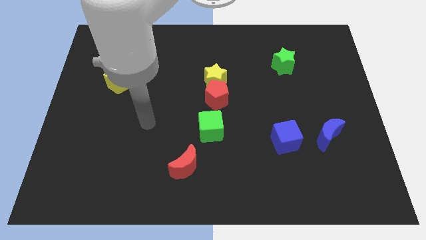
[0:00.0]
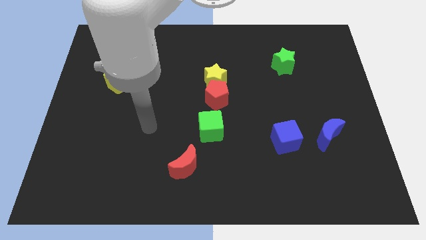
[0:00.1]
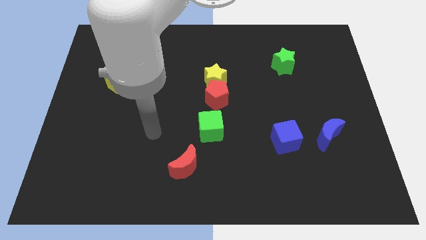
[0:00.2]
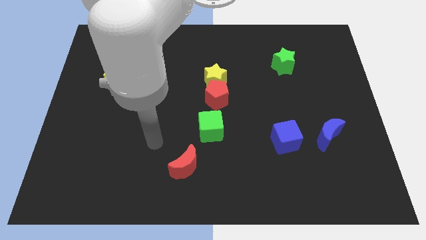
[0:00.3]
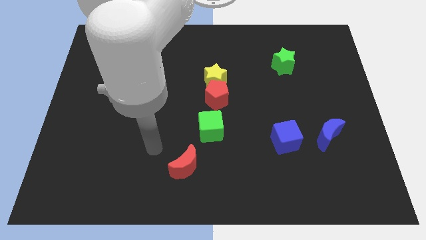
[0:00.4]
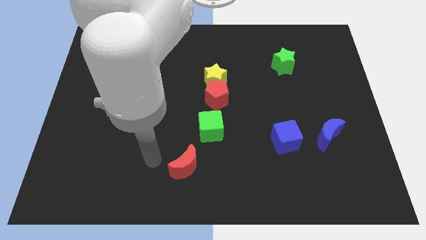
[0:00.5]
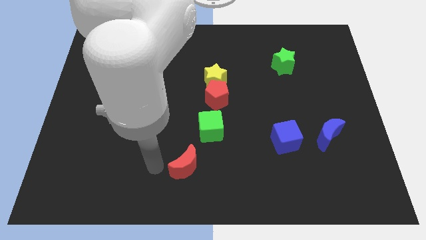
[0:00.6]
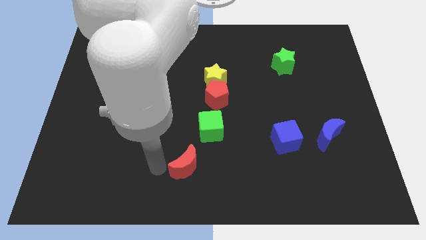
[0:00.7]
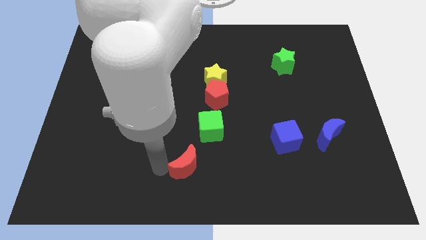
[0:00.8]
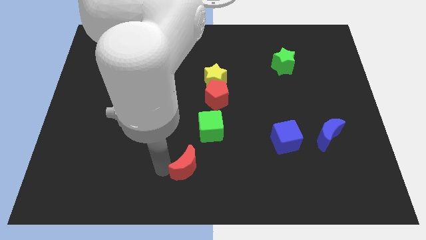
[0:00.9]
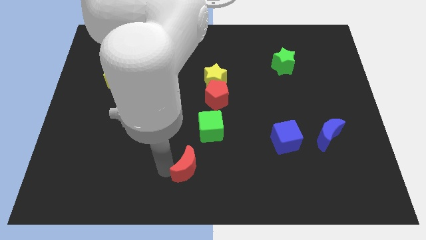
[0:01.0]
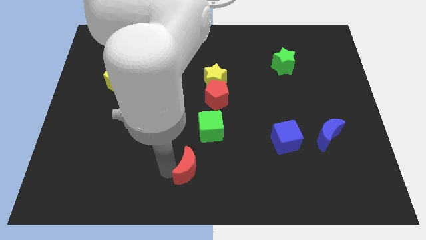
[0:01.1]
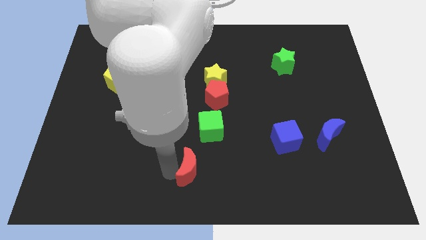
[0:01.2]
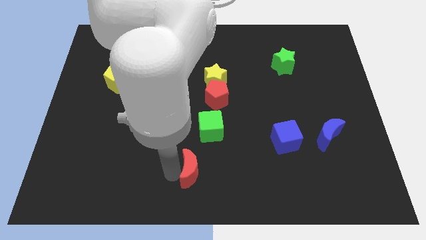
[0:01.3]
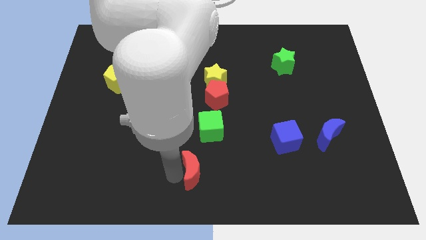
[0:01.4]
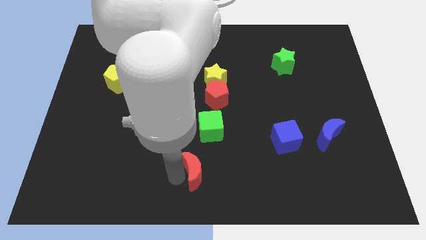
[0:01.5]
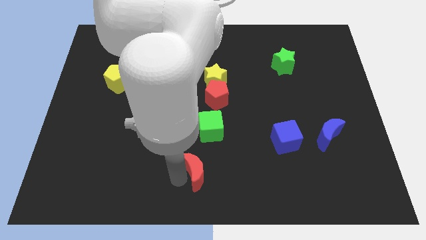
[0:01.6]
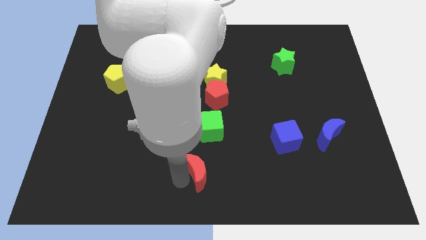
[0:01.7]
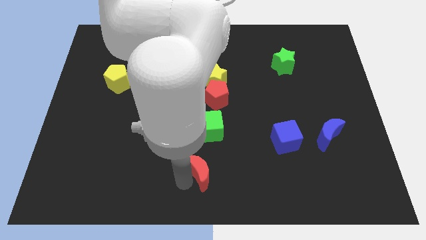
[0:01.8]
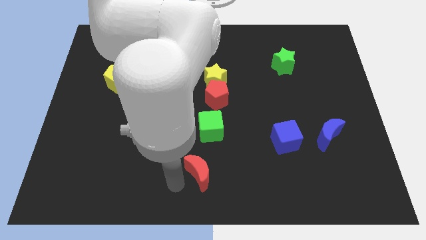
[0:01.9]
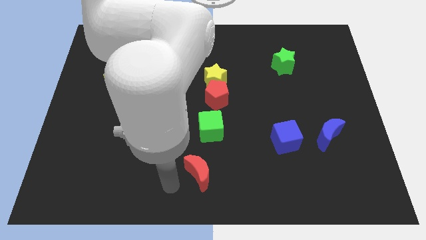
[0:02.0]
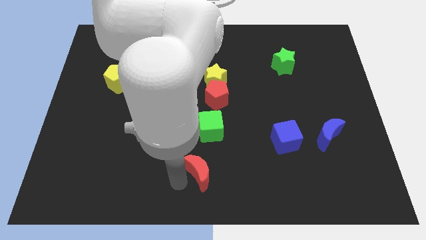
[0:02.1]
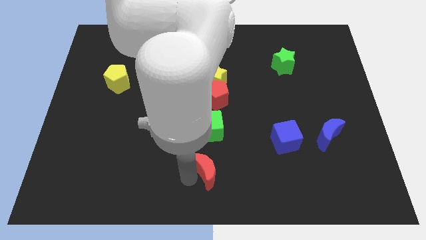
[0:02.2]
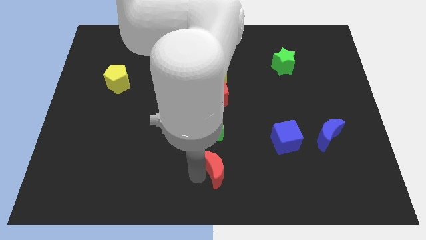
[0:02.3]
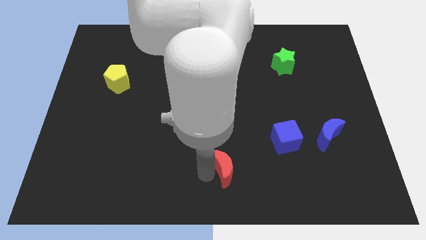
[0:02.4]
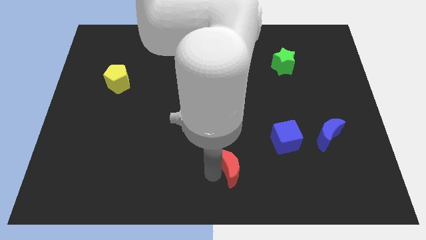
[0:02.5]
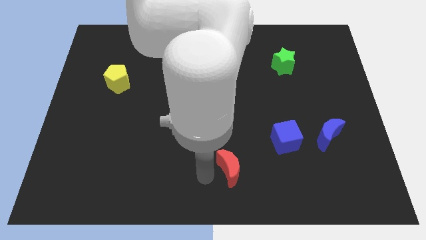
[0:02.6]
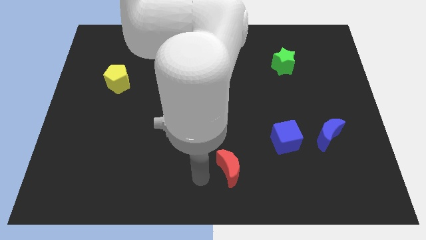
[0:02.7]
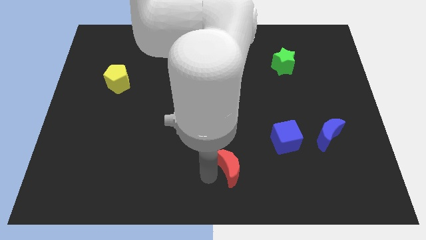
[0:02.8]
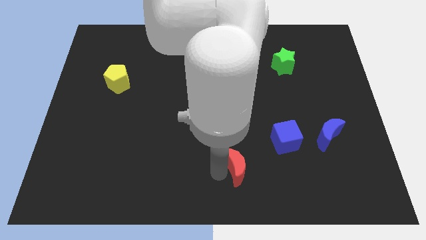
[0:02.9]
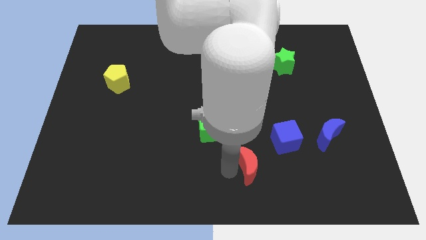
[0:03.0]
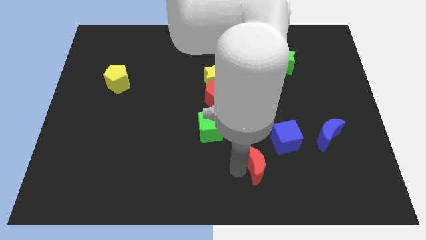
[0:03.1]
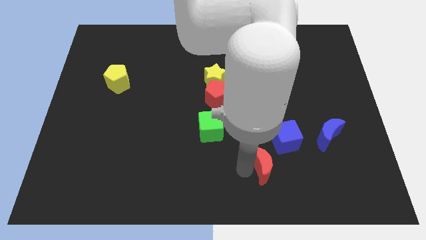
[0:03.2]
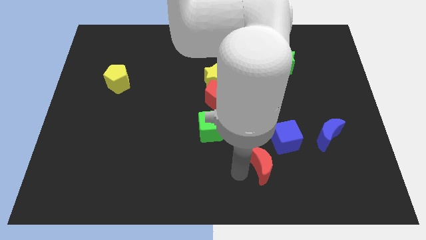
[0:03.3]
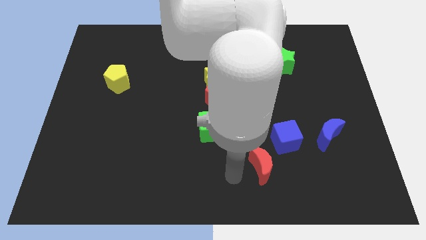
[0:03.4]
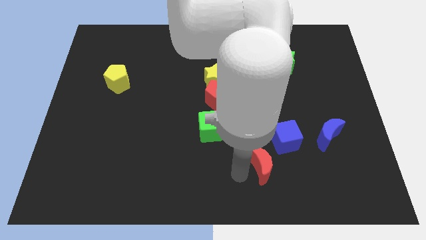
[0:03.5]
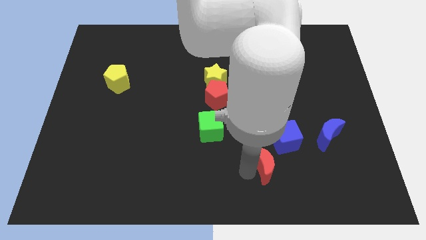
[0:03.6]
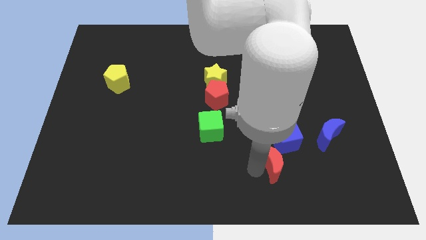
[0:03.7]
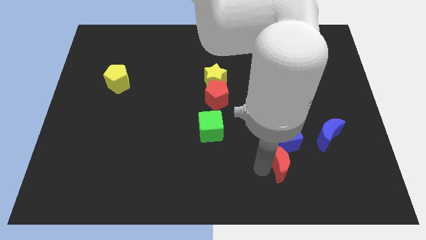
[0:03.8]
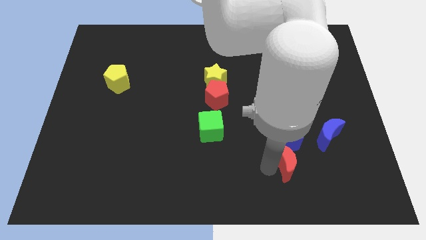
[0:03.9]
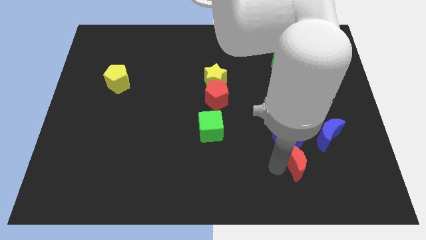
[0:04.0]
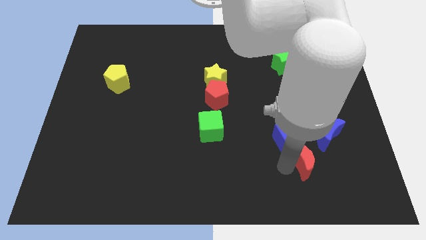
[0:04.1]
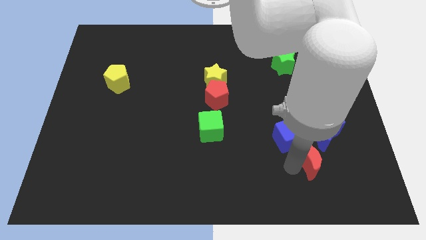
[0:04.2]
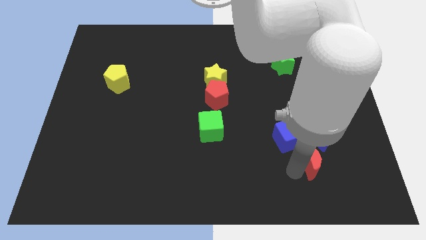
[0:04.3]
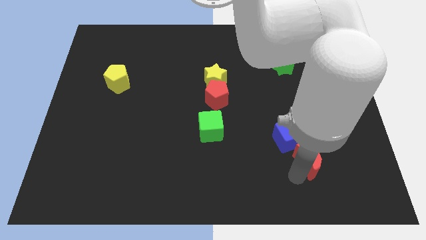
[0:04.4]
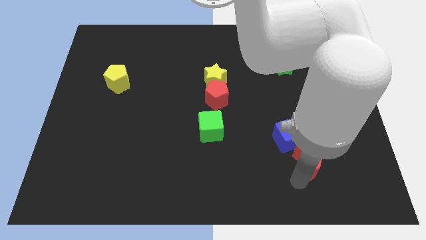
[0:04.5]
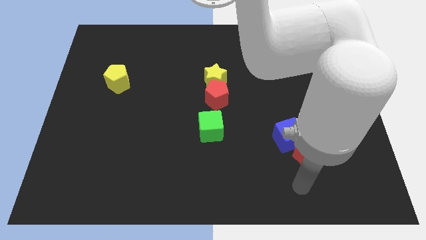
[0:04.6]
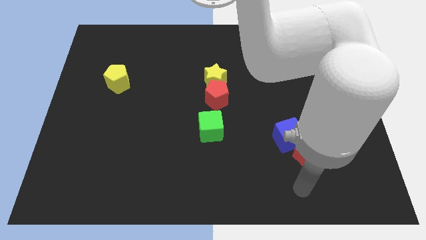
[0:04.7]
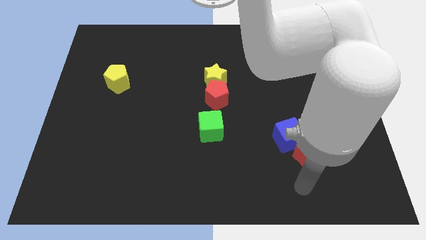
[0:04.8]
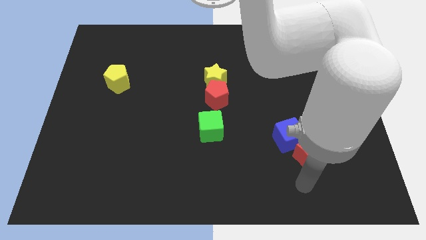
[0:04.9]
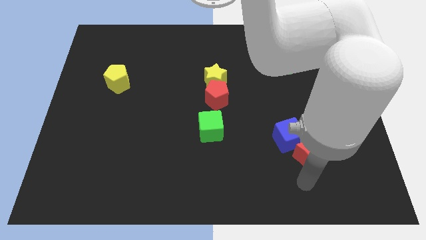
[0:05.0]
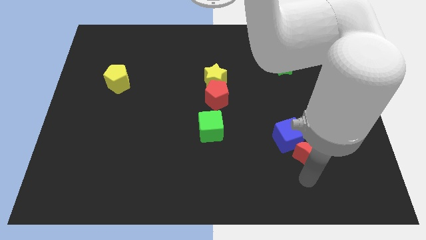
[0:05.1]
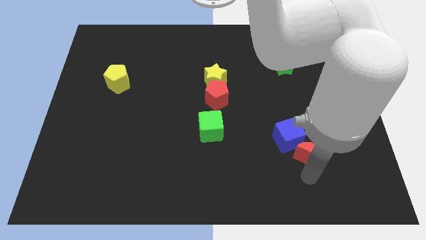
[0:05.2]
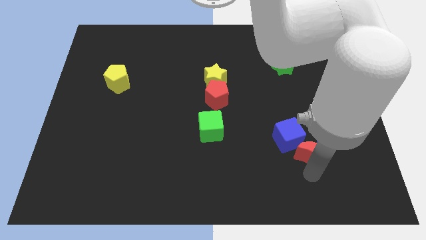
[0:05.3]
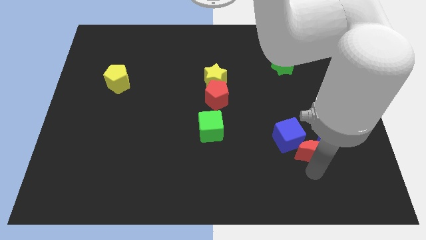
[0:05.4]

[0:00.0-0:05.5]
push the red moon close to the blue moon
